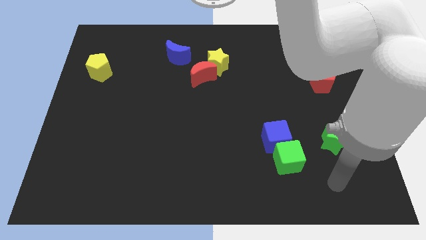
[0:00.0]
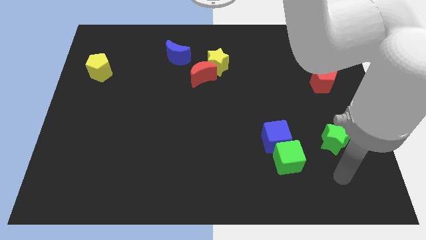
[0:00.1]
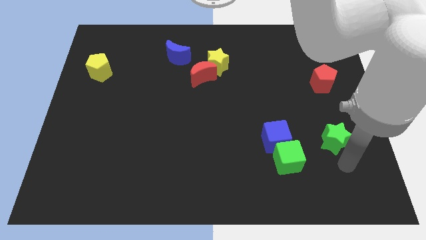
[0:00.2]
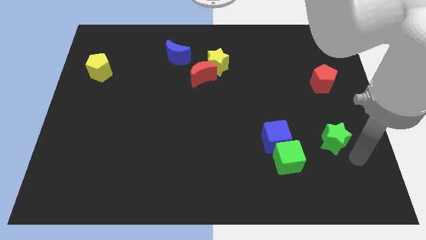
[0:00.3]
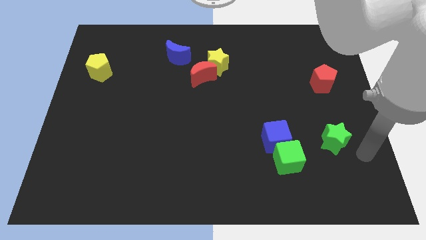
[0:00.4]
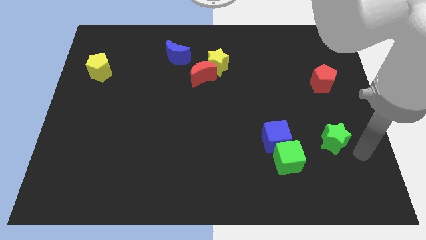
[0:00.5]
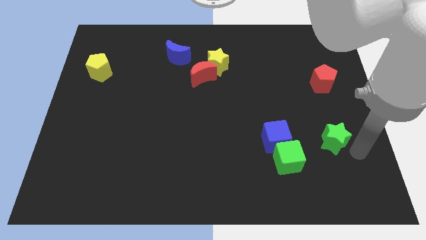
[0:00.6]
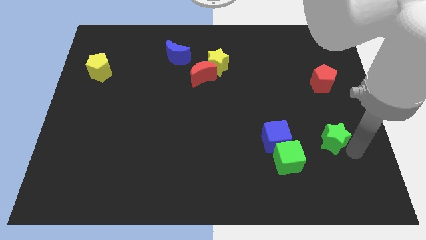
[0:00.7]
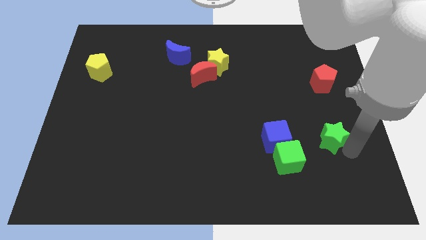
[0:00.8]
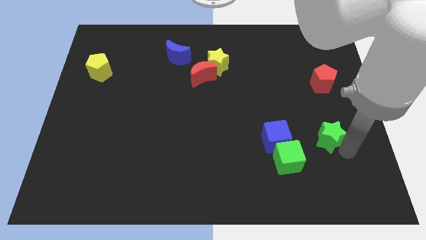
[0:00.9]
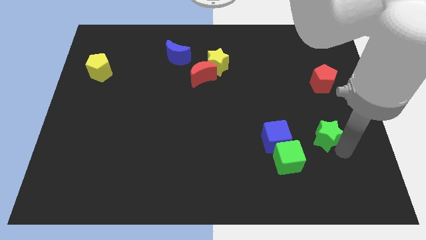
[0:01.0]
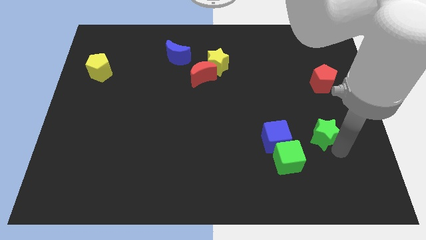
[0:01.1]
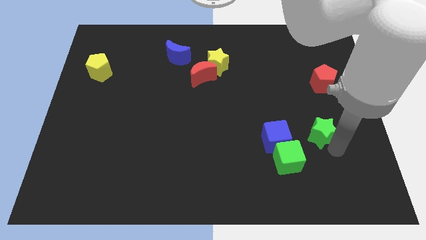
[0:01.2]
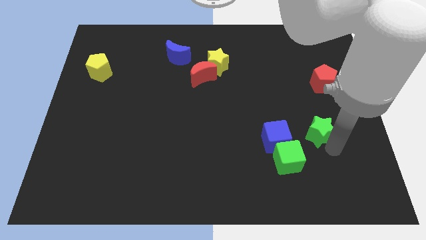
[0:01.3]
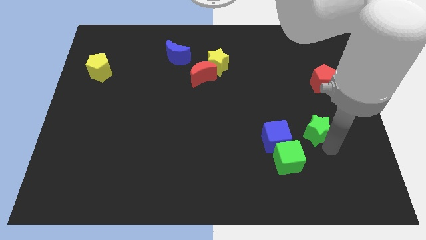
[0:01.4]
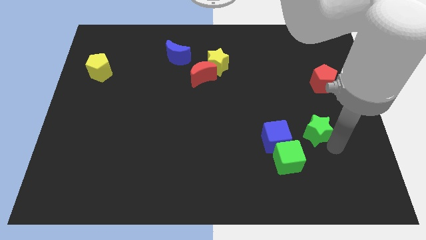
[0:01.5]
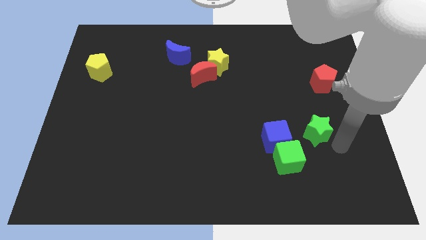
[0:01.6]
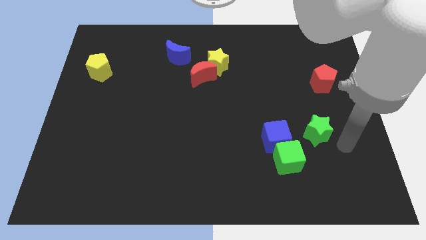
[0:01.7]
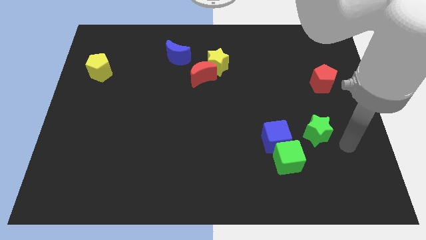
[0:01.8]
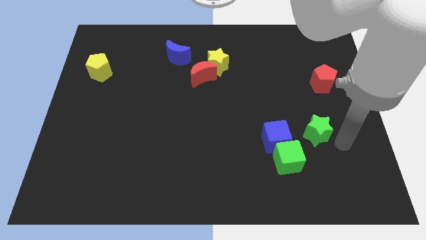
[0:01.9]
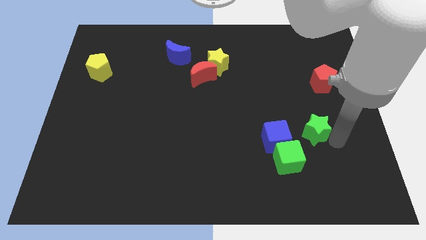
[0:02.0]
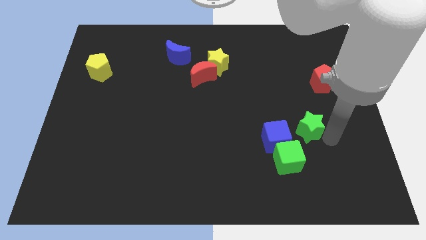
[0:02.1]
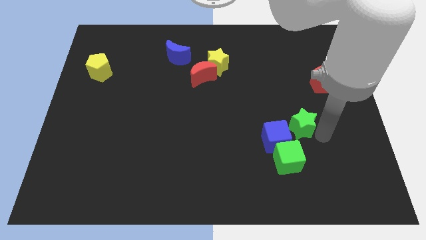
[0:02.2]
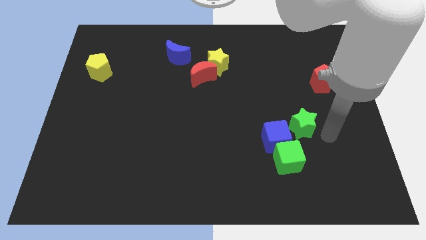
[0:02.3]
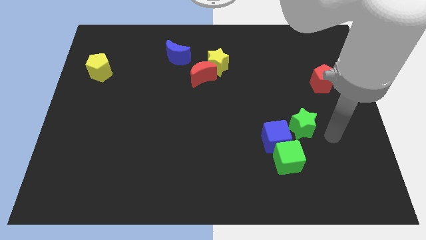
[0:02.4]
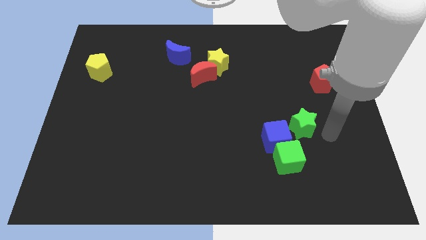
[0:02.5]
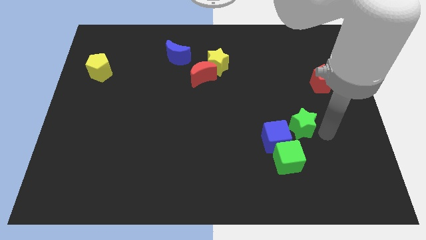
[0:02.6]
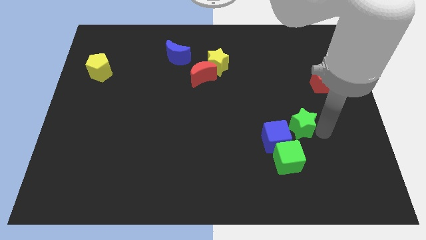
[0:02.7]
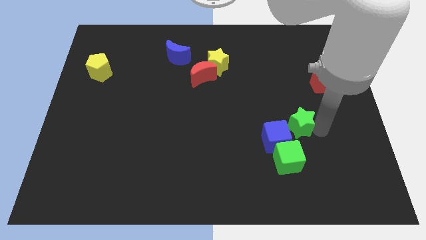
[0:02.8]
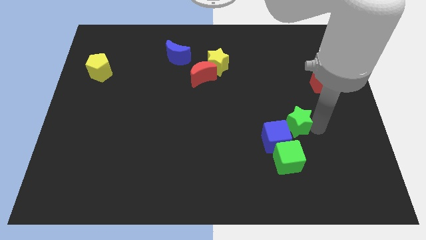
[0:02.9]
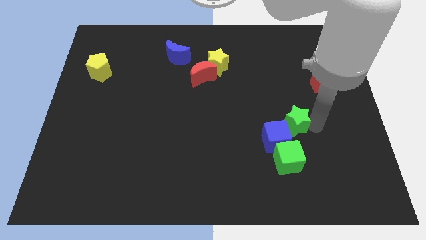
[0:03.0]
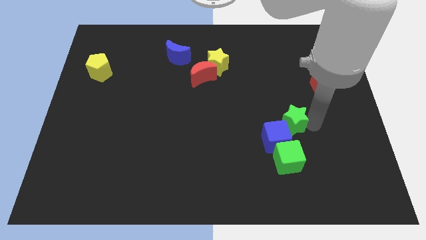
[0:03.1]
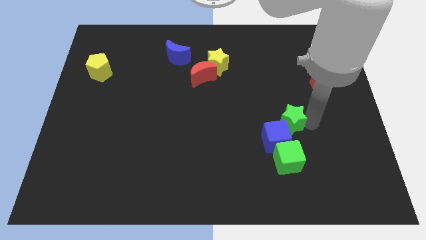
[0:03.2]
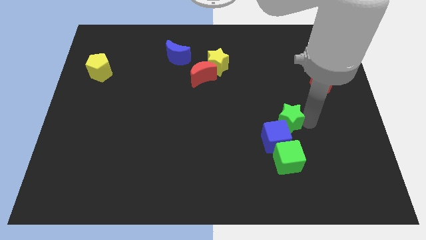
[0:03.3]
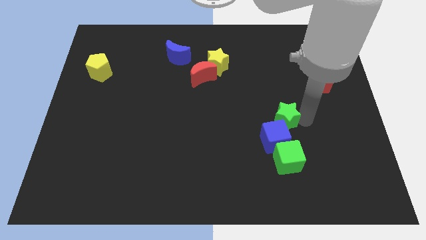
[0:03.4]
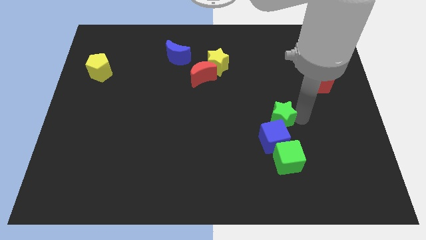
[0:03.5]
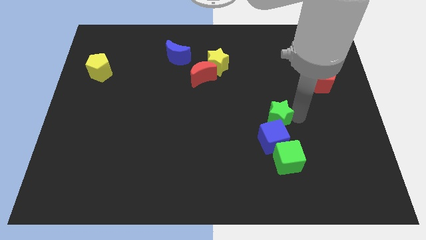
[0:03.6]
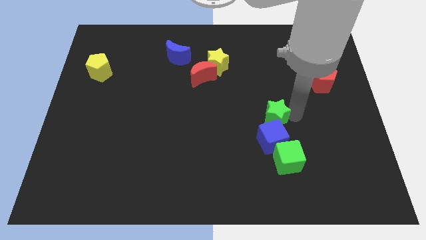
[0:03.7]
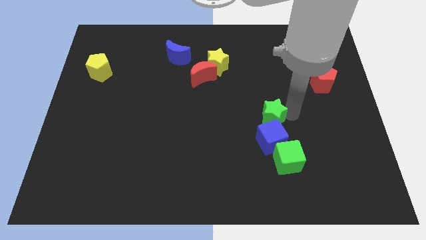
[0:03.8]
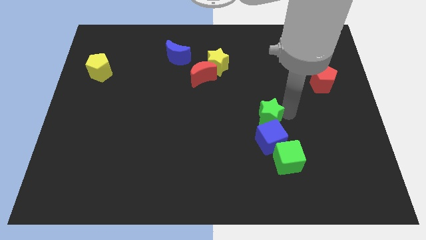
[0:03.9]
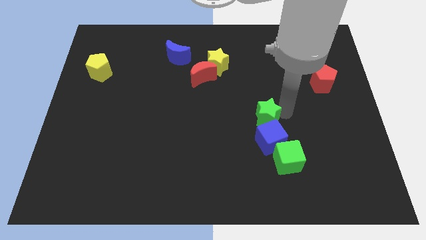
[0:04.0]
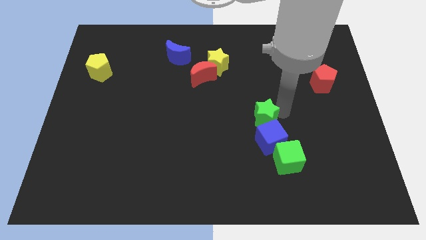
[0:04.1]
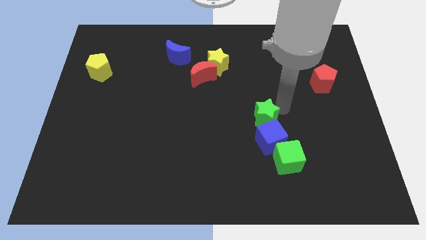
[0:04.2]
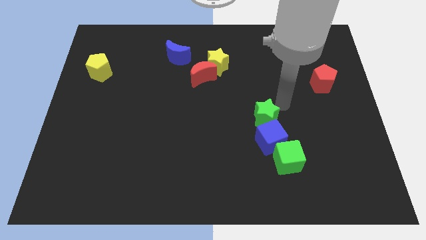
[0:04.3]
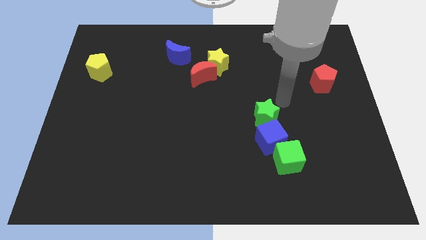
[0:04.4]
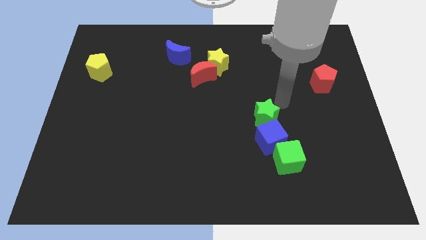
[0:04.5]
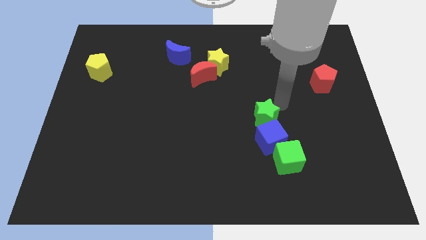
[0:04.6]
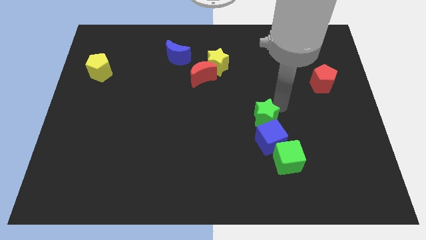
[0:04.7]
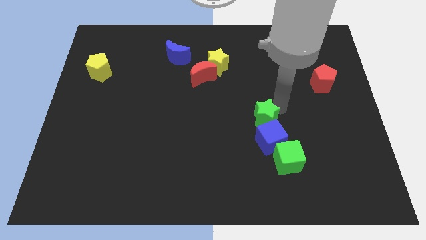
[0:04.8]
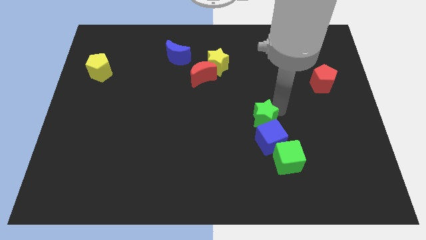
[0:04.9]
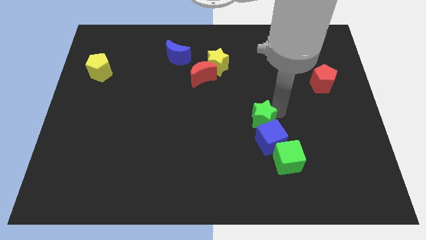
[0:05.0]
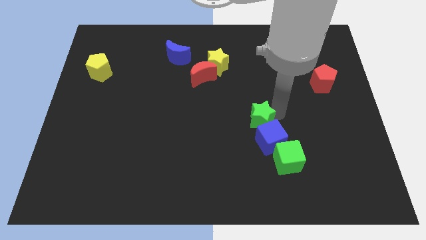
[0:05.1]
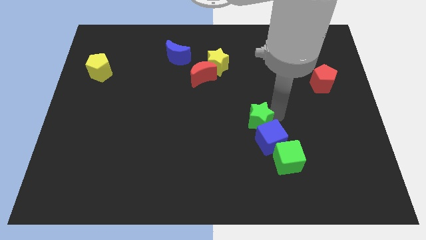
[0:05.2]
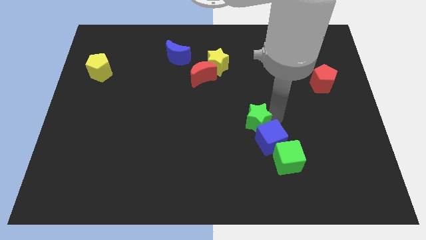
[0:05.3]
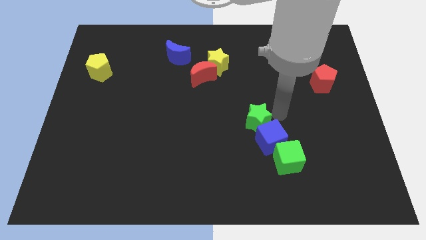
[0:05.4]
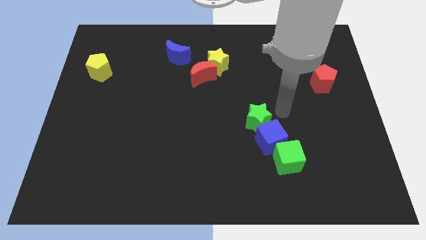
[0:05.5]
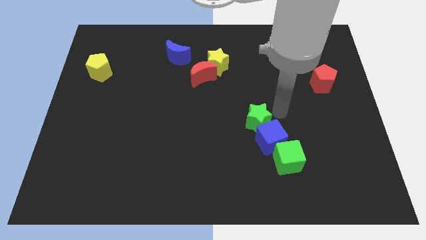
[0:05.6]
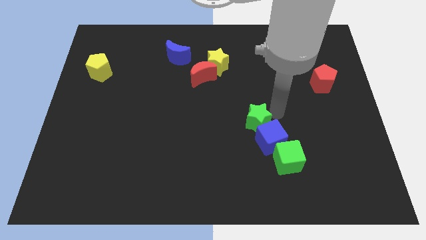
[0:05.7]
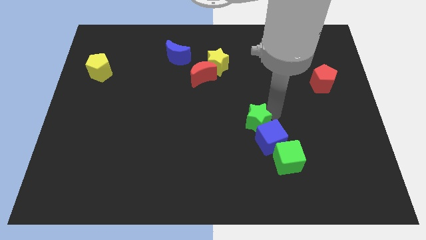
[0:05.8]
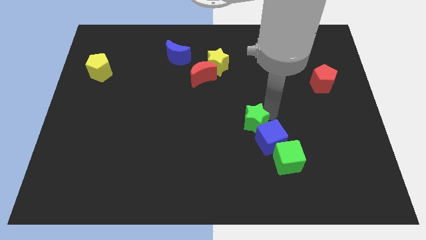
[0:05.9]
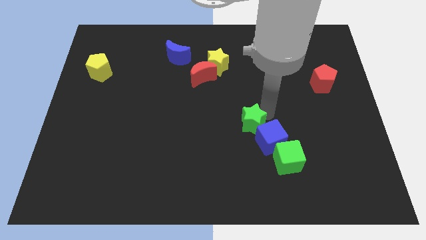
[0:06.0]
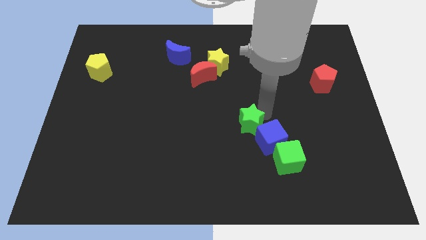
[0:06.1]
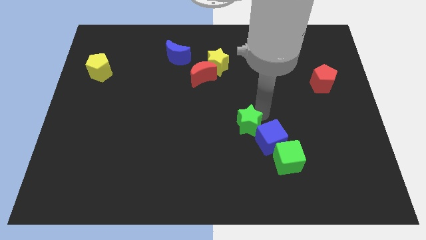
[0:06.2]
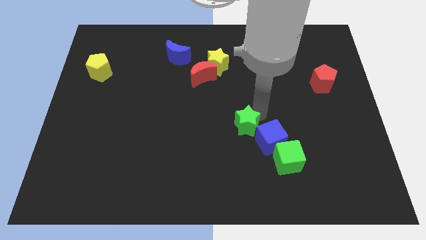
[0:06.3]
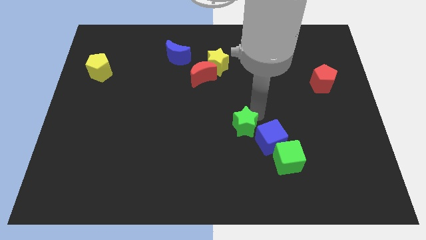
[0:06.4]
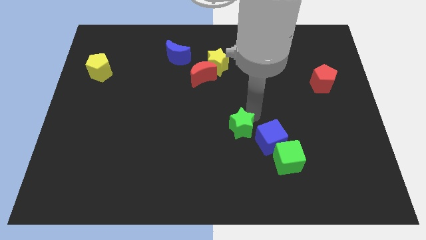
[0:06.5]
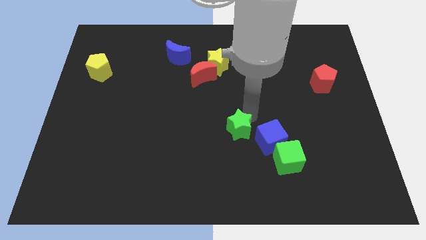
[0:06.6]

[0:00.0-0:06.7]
slide the green star to the left

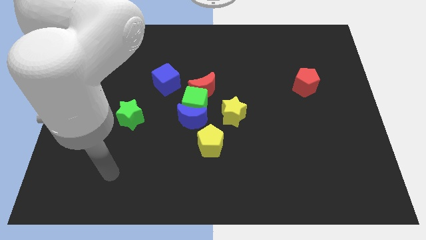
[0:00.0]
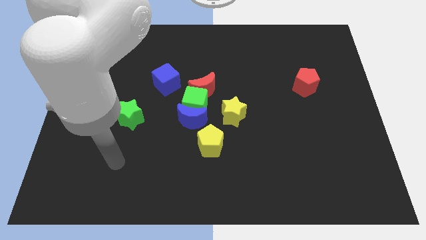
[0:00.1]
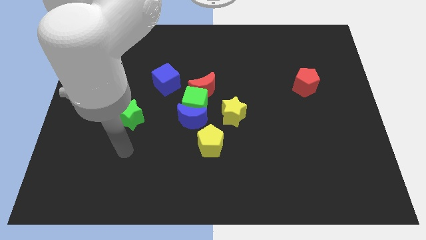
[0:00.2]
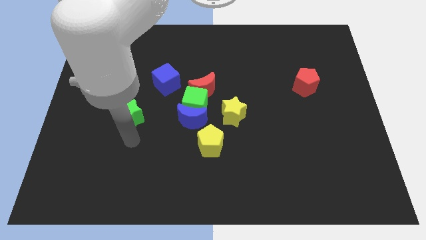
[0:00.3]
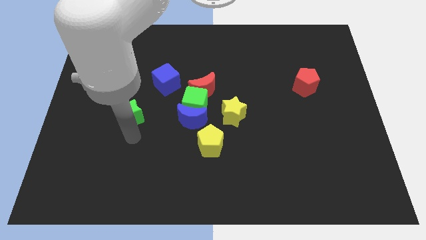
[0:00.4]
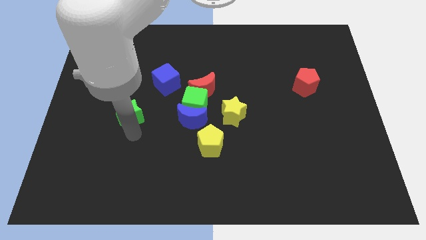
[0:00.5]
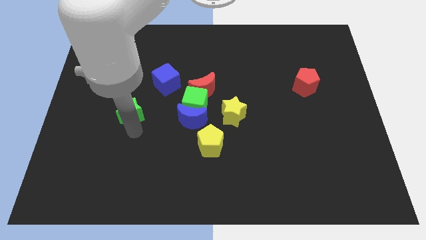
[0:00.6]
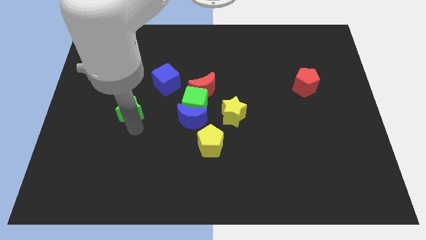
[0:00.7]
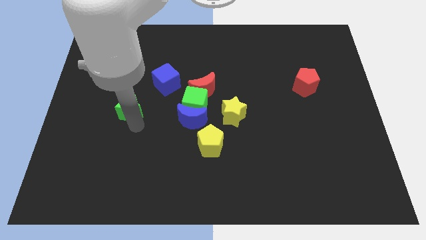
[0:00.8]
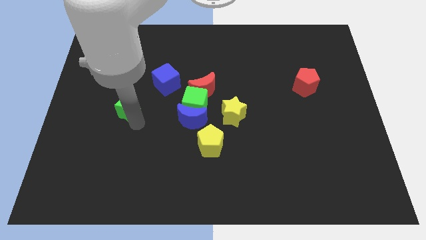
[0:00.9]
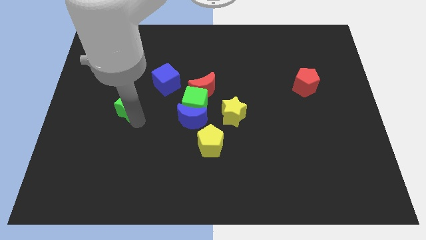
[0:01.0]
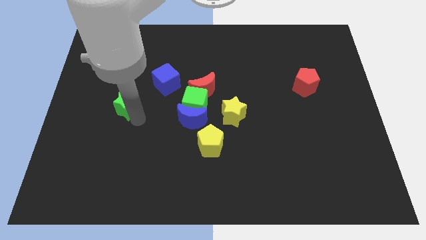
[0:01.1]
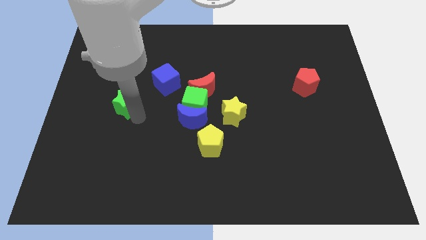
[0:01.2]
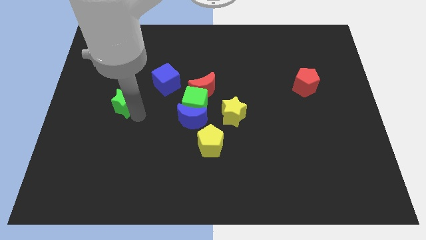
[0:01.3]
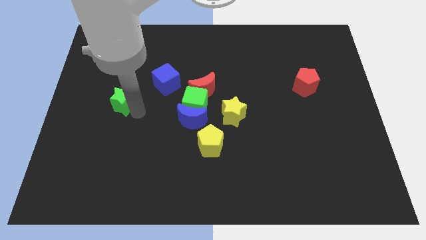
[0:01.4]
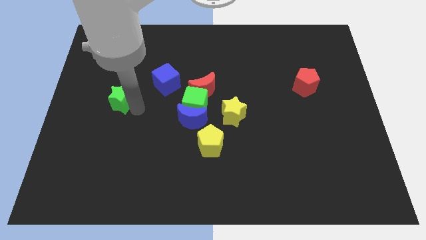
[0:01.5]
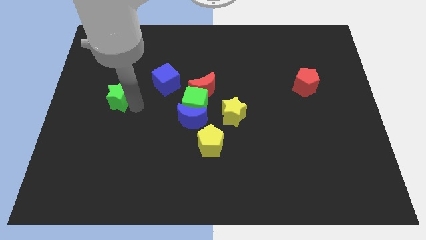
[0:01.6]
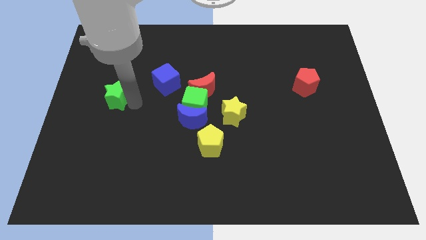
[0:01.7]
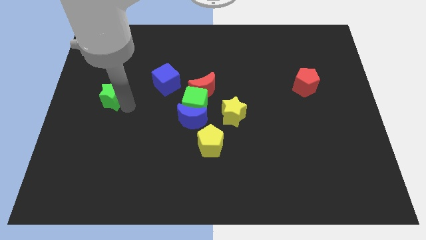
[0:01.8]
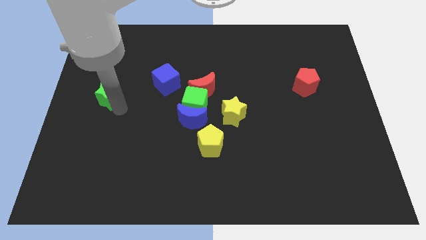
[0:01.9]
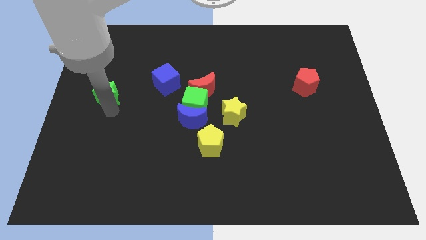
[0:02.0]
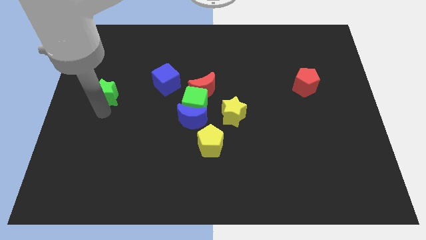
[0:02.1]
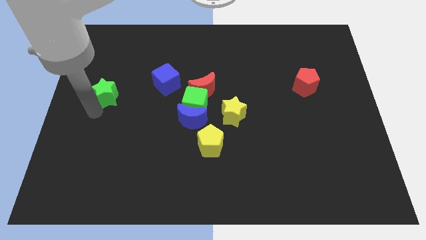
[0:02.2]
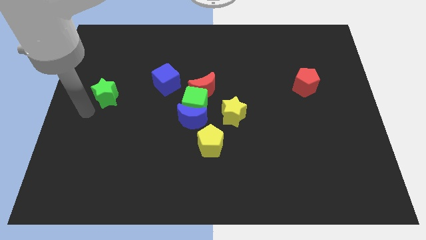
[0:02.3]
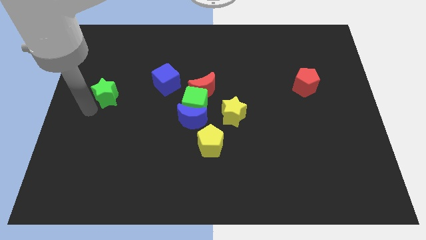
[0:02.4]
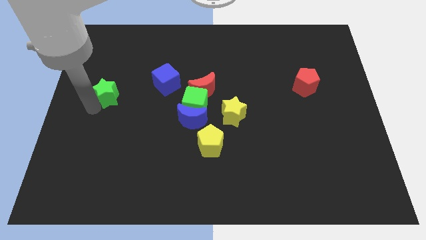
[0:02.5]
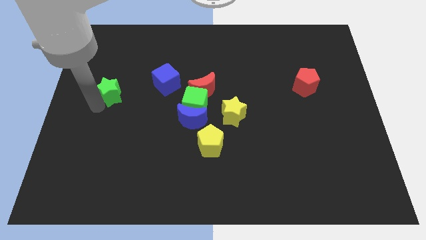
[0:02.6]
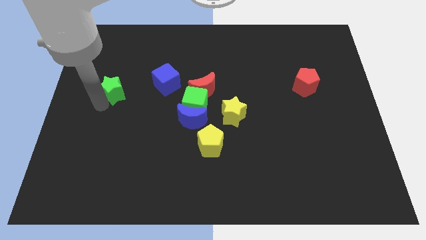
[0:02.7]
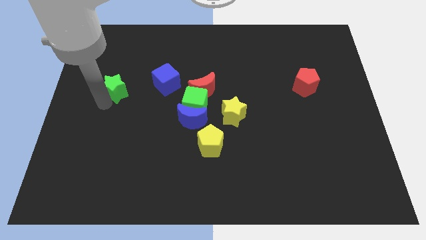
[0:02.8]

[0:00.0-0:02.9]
push the green star a little upwards
